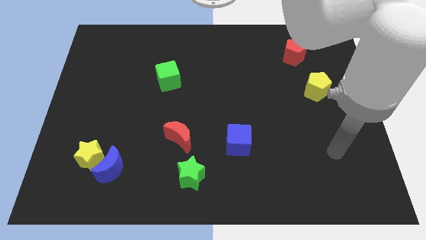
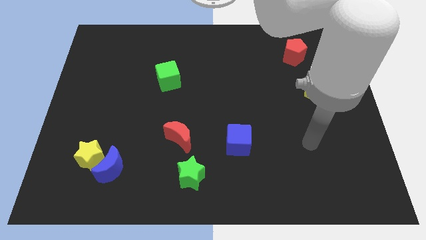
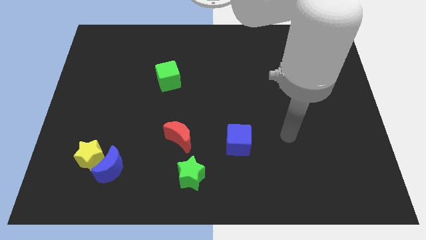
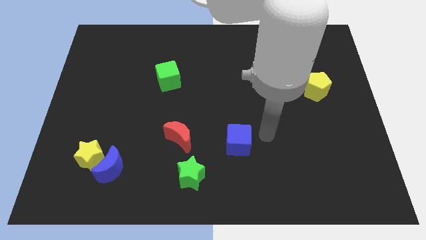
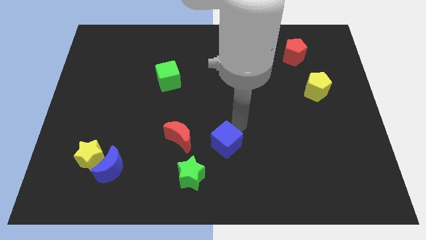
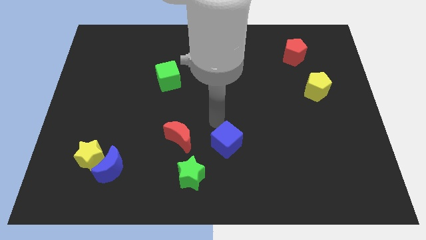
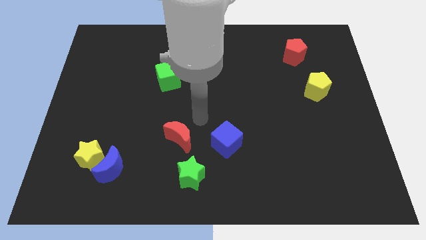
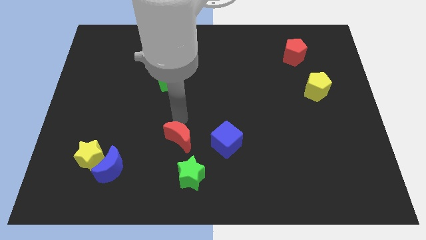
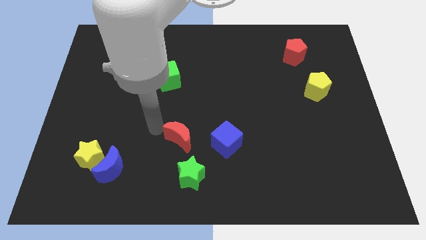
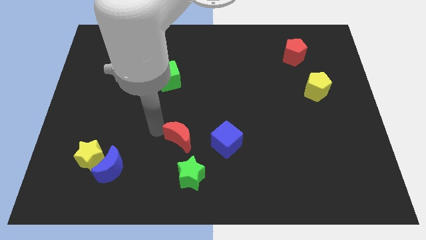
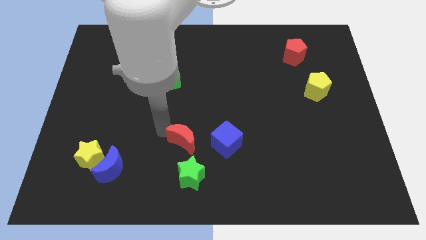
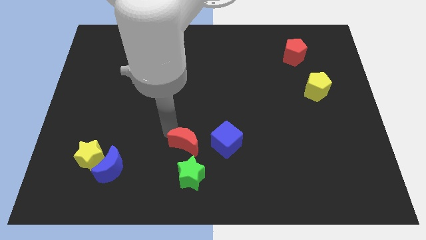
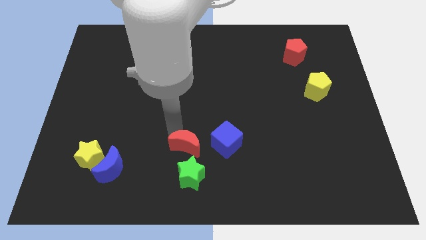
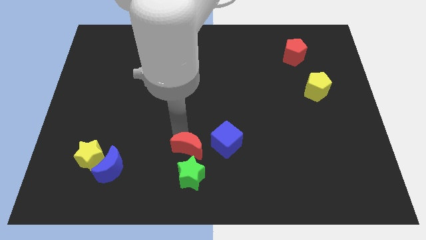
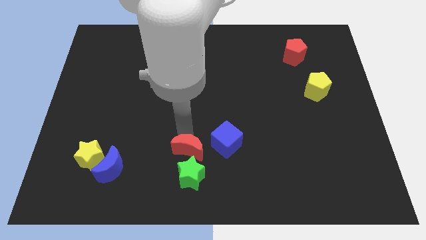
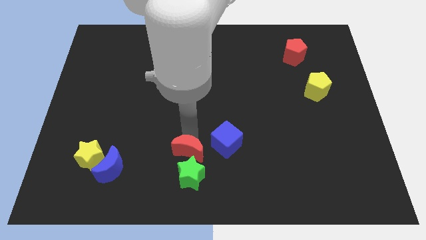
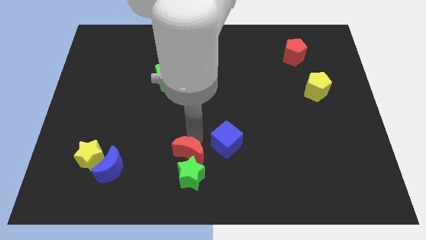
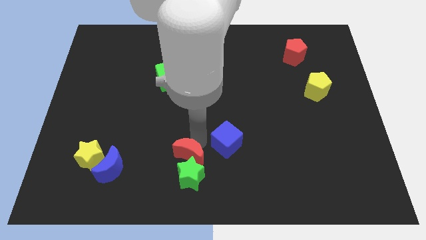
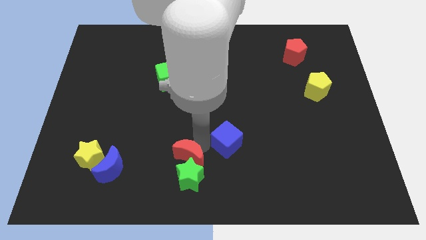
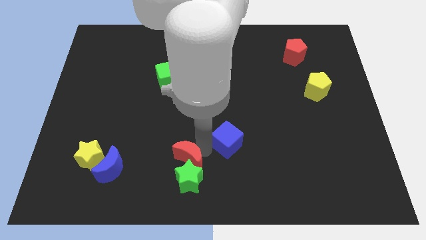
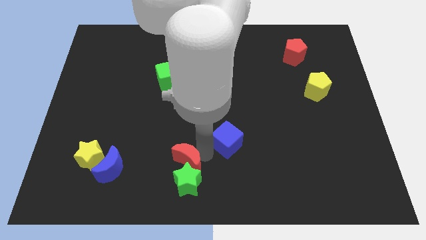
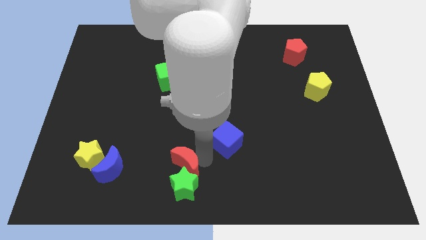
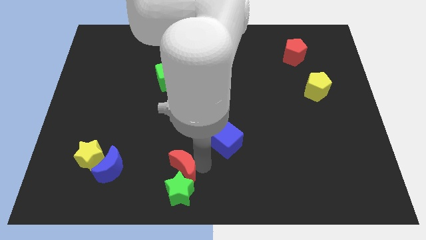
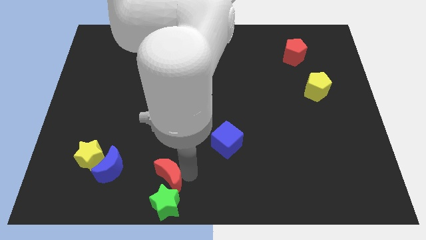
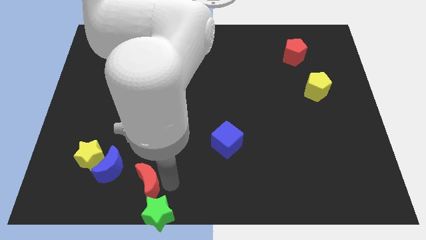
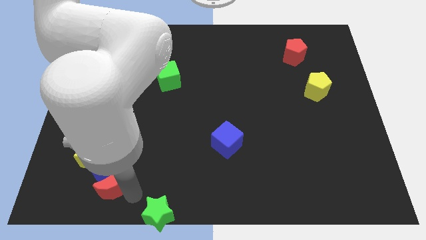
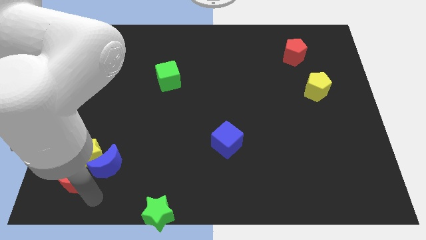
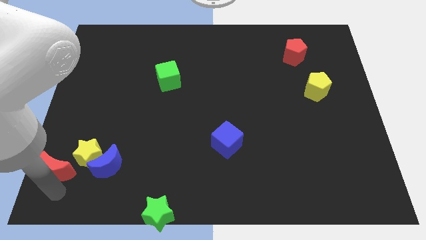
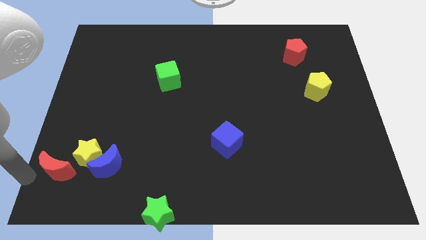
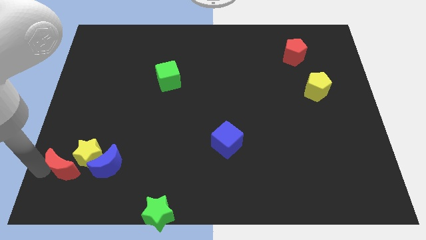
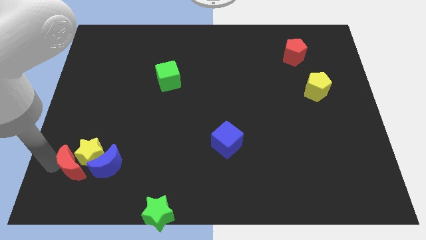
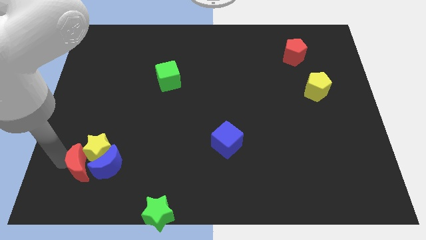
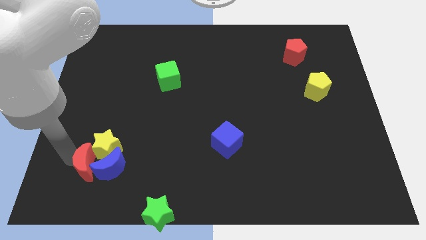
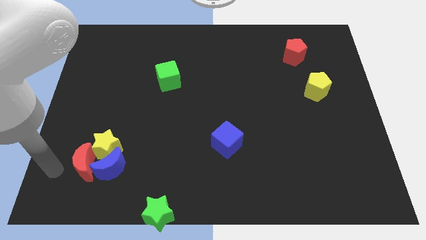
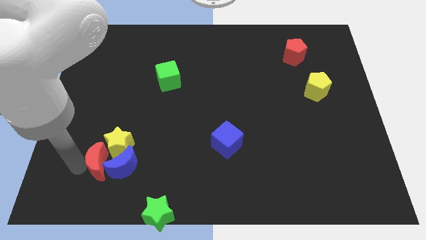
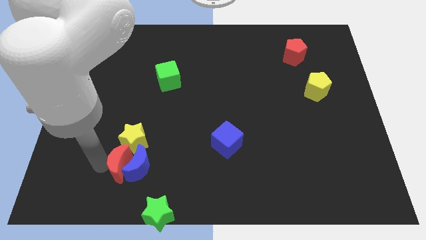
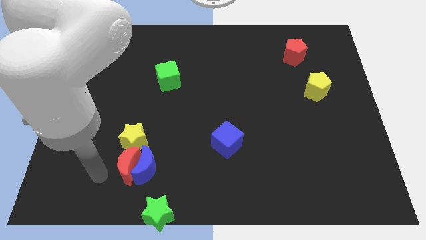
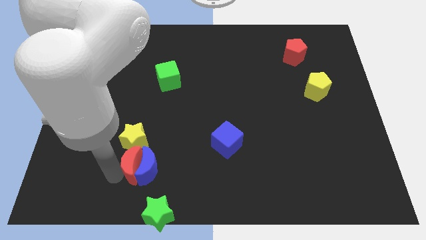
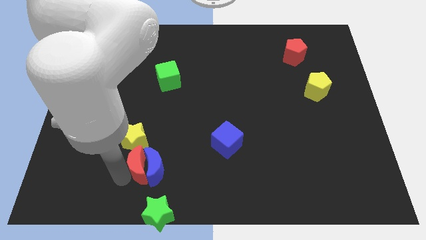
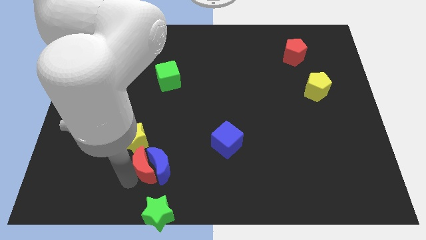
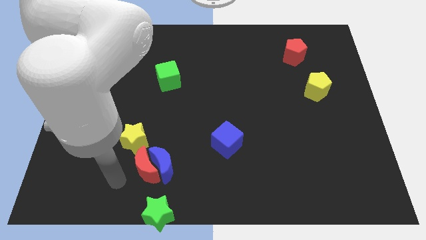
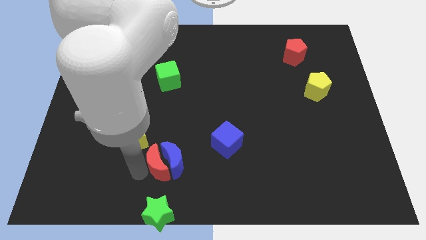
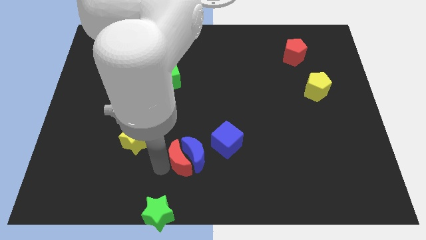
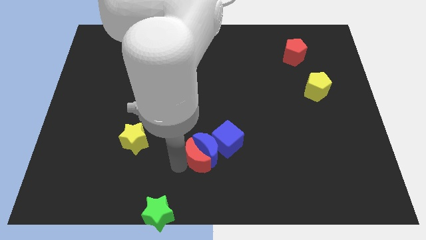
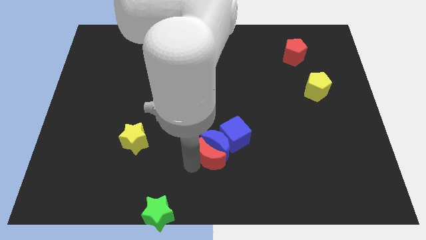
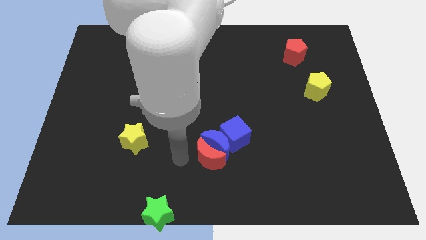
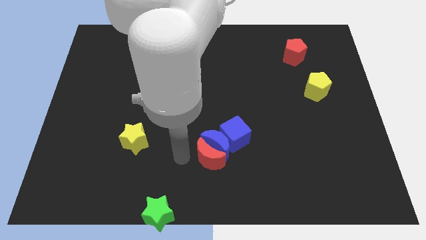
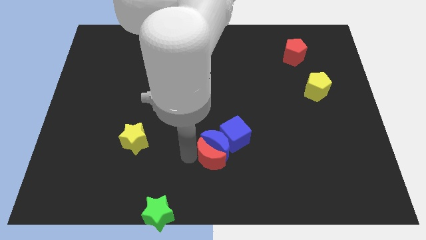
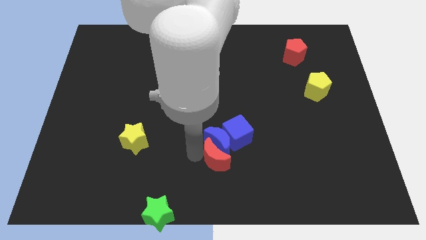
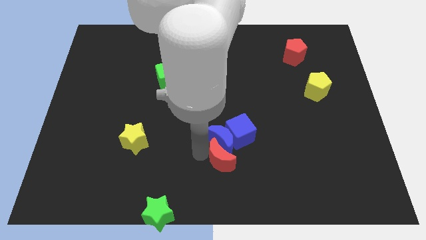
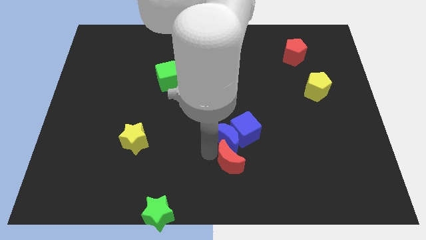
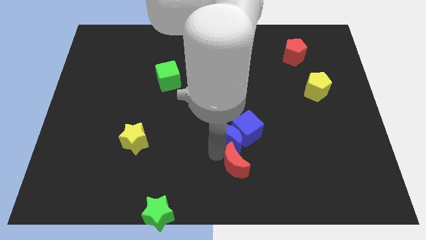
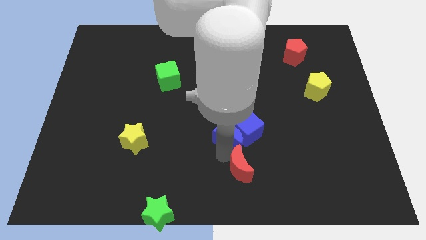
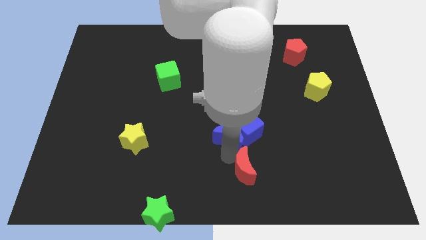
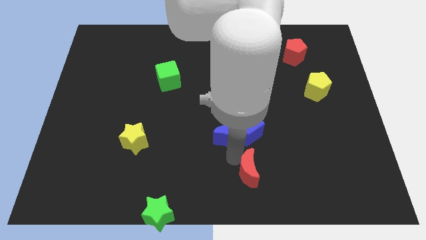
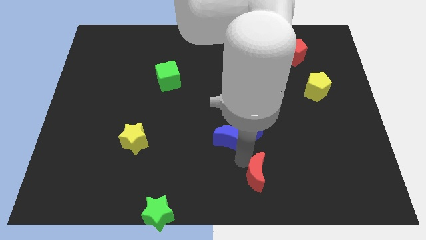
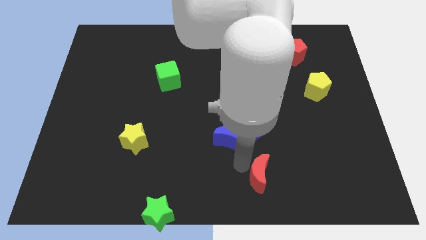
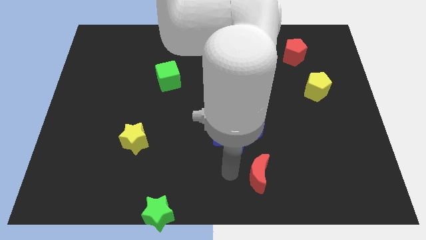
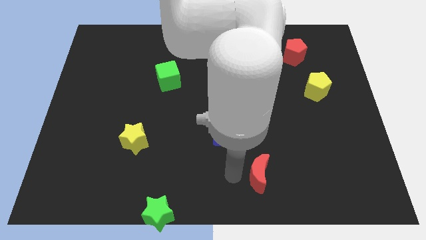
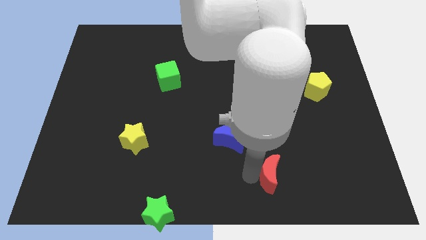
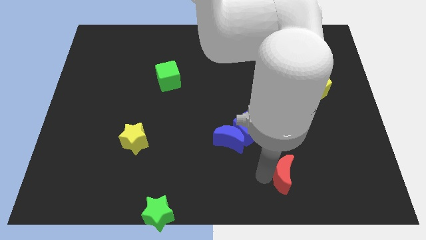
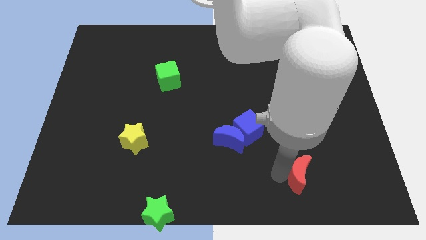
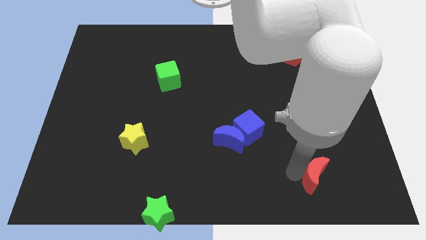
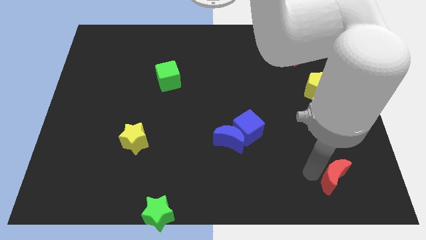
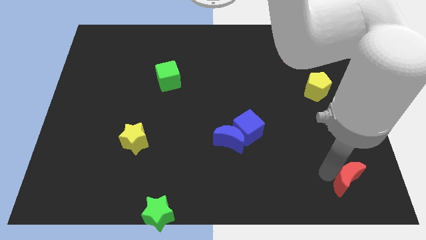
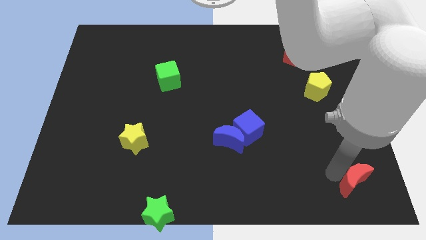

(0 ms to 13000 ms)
move the red moon to the bottom right corner
